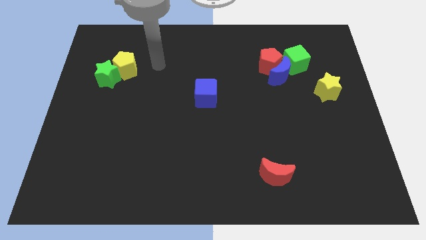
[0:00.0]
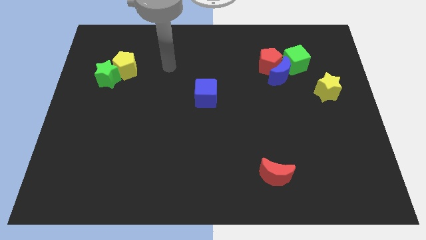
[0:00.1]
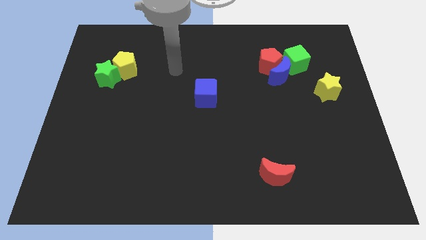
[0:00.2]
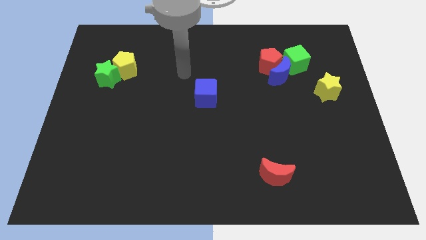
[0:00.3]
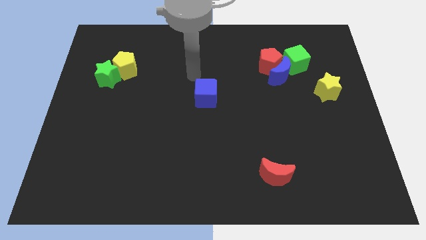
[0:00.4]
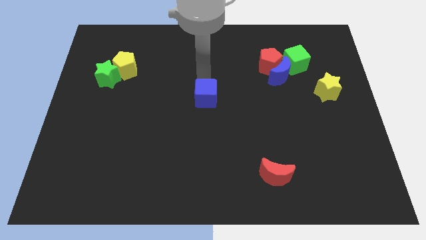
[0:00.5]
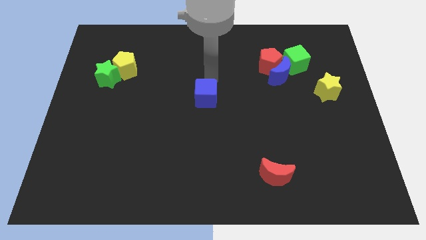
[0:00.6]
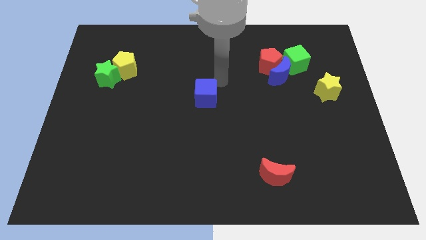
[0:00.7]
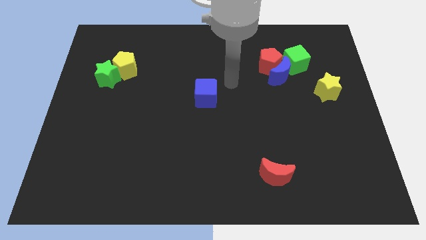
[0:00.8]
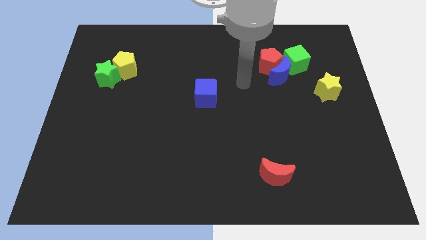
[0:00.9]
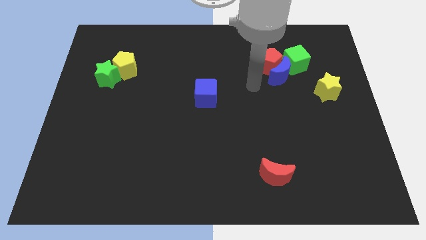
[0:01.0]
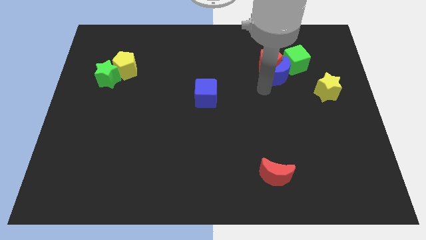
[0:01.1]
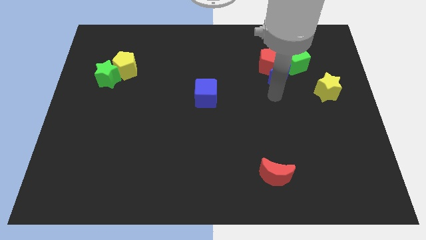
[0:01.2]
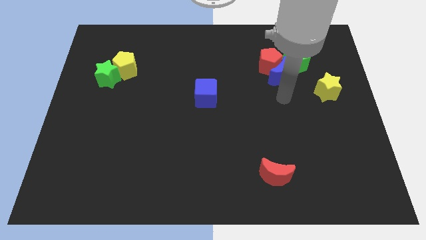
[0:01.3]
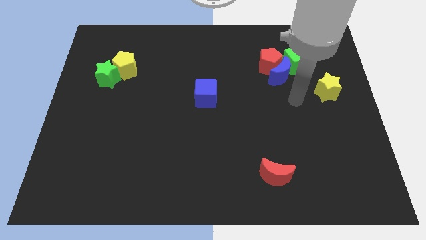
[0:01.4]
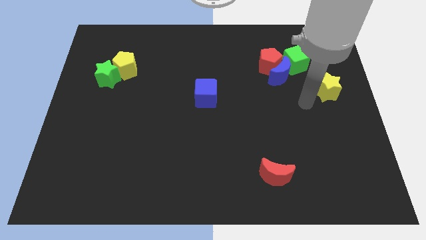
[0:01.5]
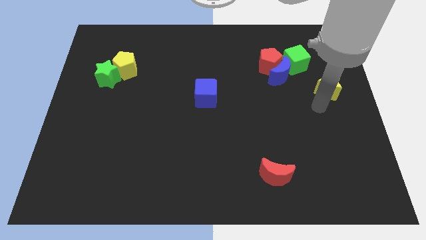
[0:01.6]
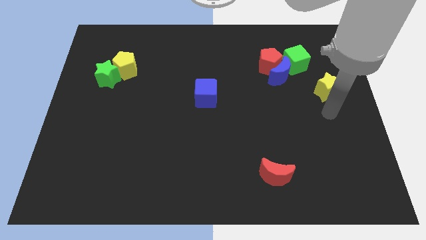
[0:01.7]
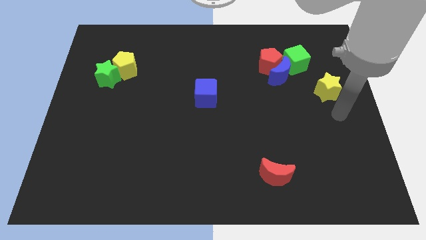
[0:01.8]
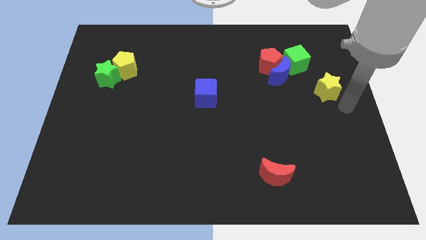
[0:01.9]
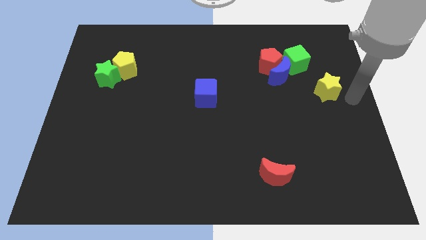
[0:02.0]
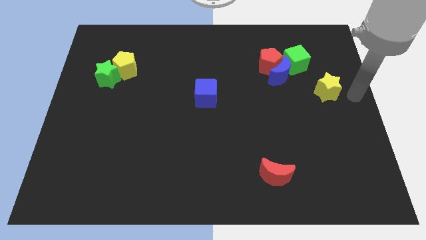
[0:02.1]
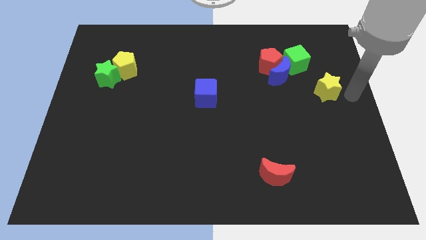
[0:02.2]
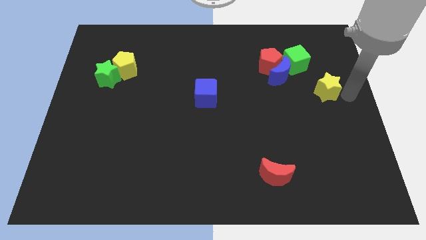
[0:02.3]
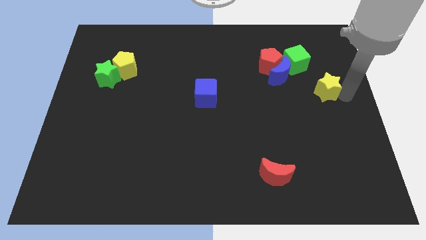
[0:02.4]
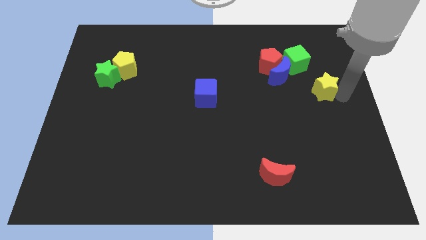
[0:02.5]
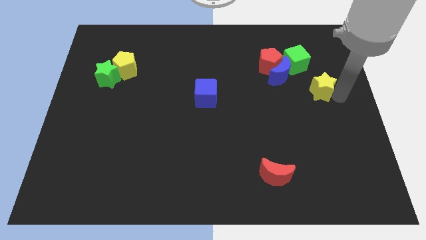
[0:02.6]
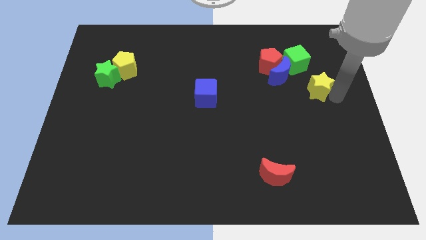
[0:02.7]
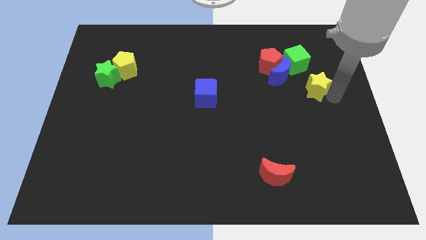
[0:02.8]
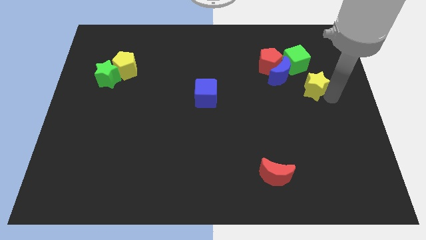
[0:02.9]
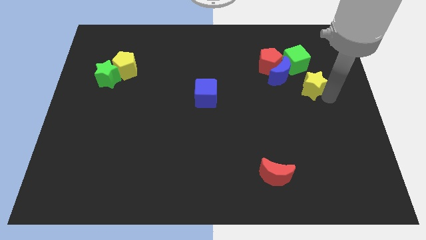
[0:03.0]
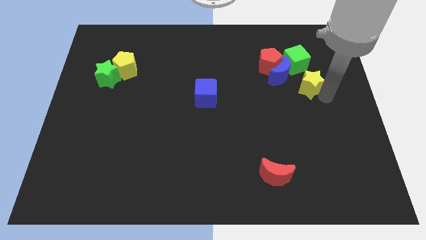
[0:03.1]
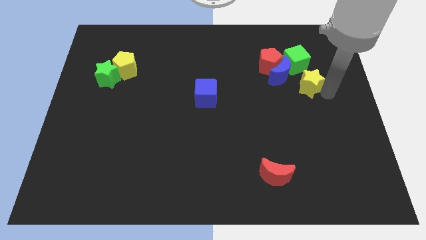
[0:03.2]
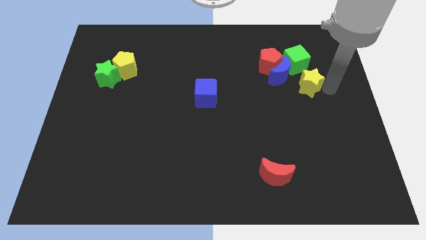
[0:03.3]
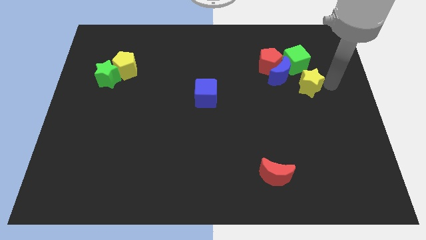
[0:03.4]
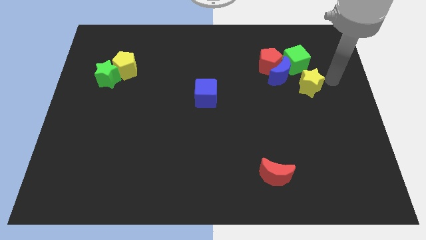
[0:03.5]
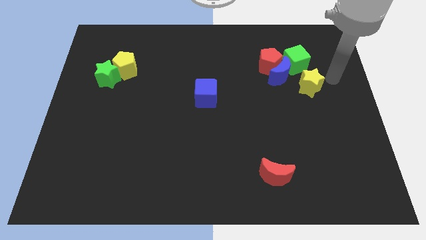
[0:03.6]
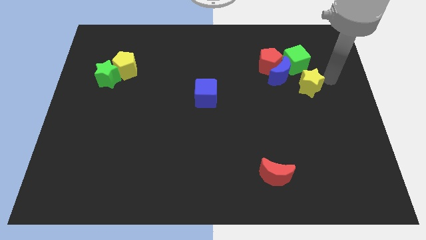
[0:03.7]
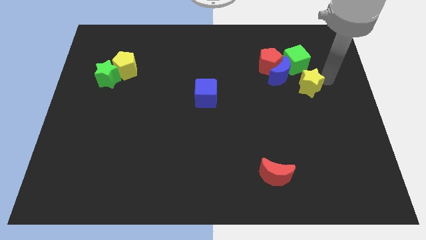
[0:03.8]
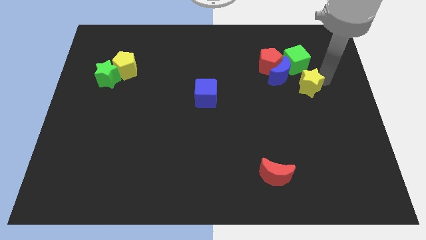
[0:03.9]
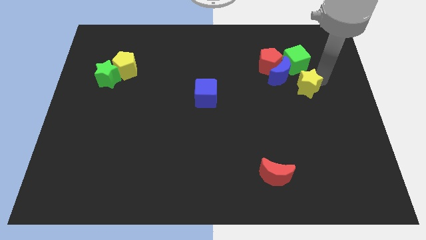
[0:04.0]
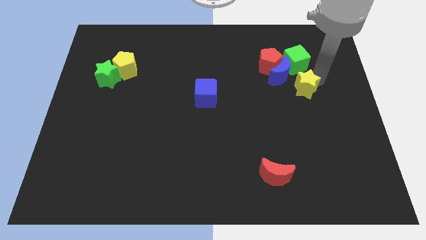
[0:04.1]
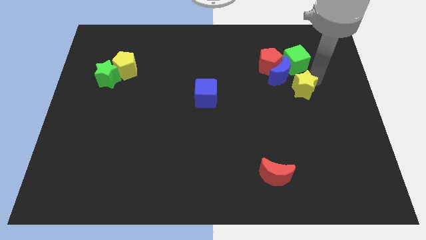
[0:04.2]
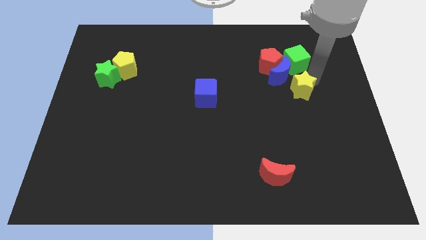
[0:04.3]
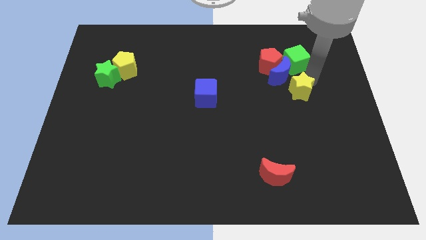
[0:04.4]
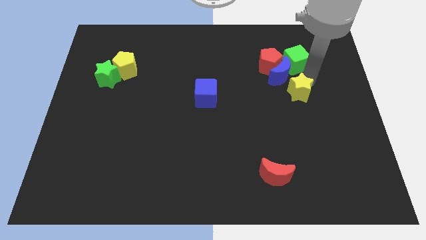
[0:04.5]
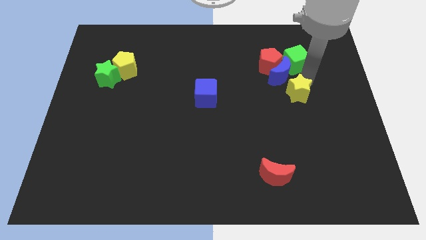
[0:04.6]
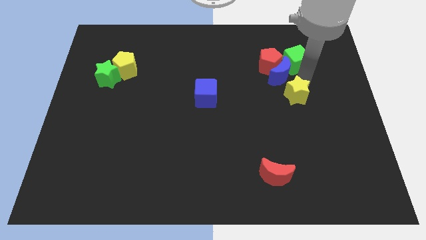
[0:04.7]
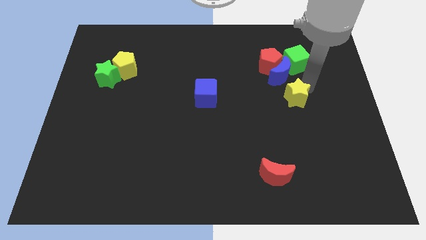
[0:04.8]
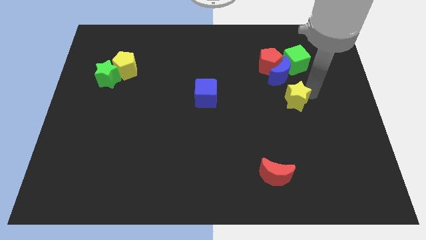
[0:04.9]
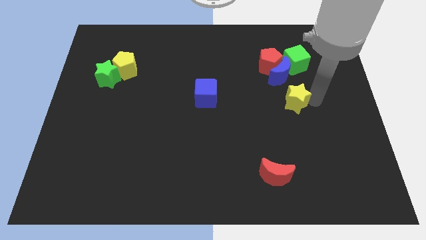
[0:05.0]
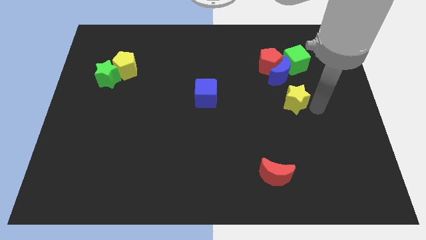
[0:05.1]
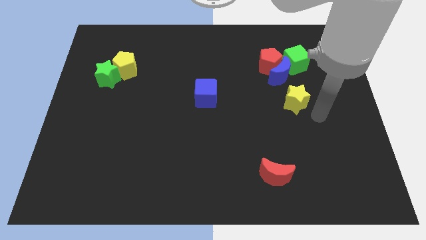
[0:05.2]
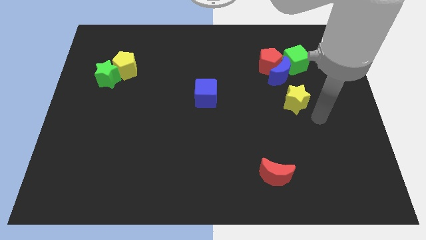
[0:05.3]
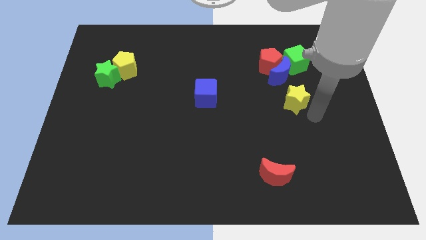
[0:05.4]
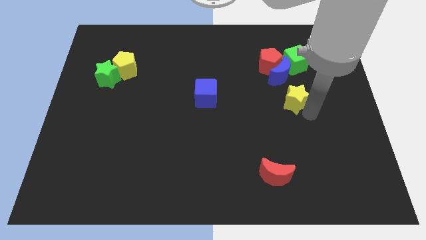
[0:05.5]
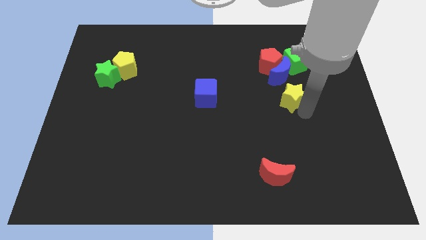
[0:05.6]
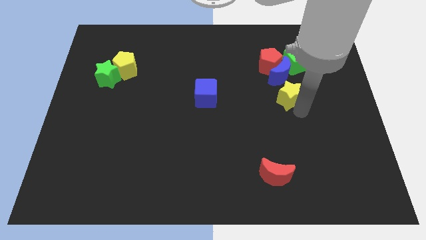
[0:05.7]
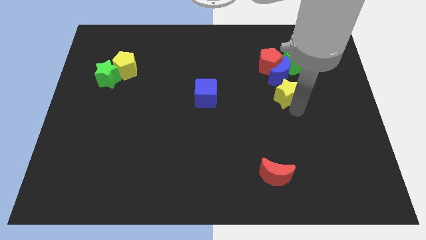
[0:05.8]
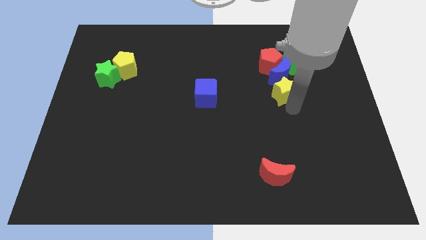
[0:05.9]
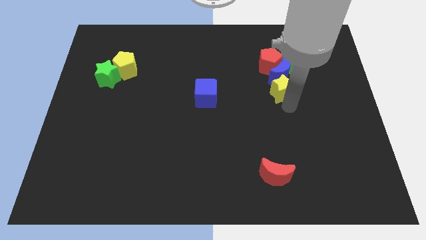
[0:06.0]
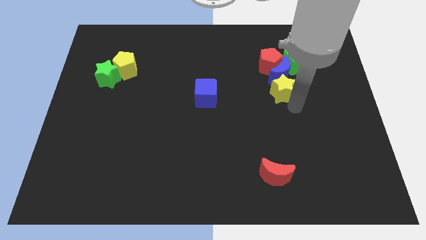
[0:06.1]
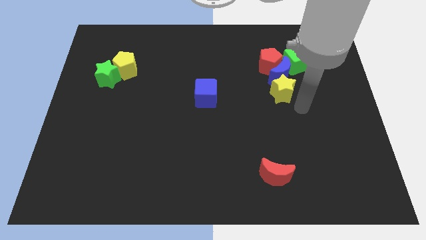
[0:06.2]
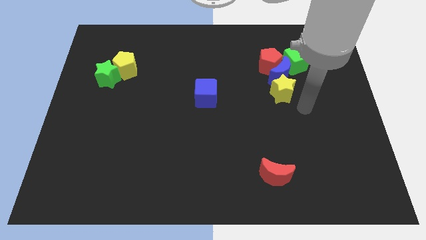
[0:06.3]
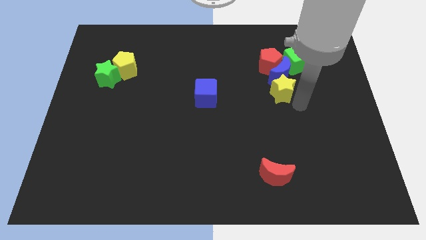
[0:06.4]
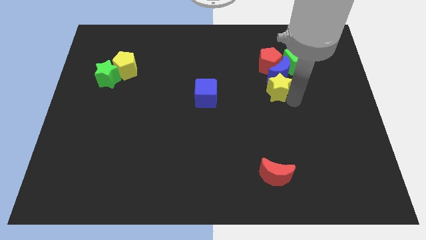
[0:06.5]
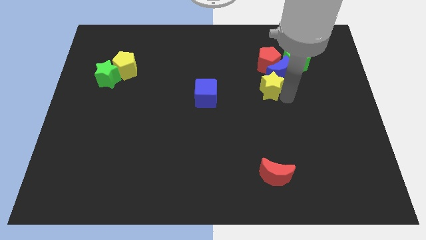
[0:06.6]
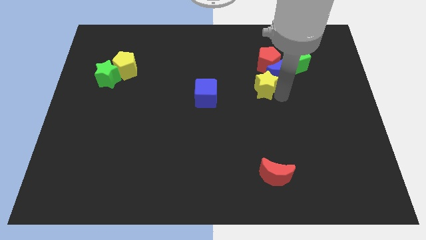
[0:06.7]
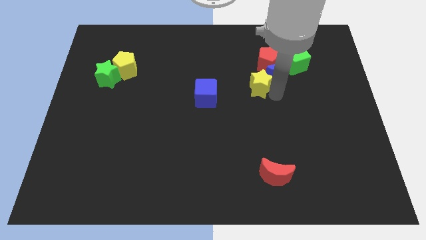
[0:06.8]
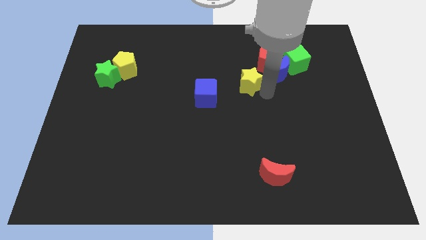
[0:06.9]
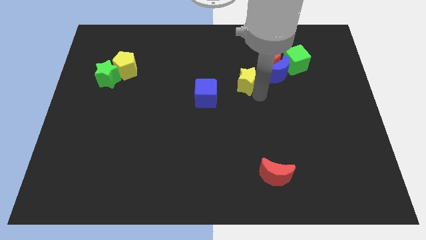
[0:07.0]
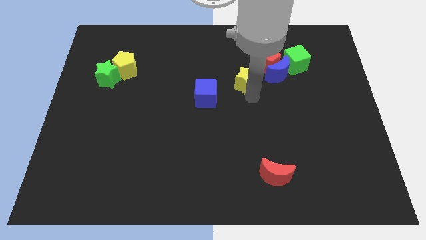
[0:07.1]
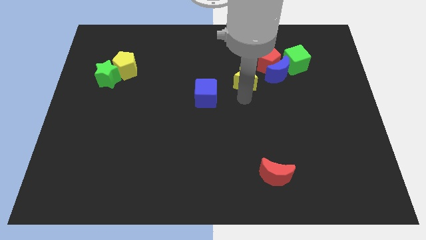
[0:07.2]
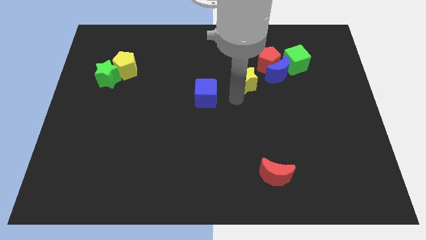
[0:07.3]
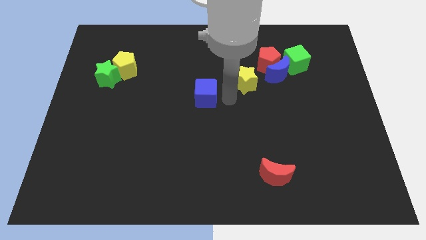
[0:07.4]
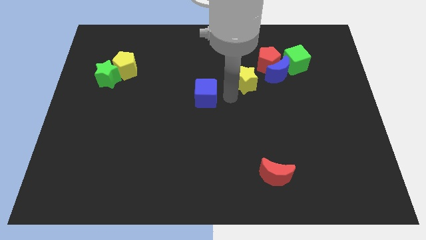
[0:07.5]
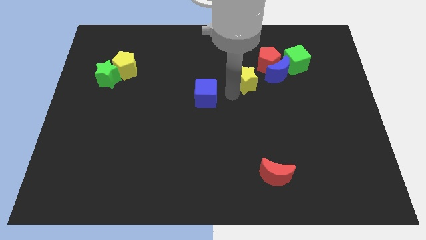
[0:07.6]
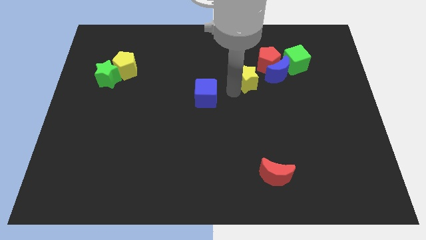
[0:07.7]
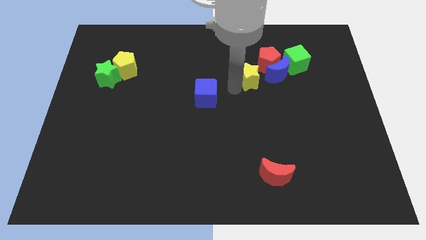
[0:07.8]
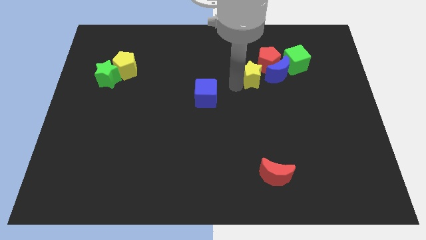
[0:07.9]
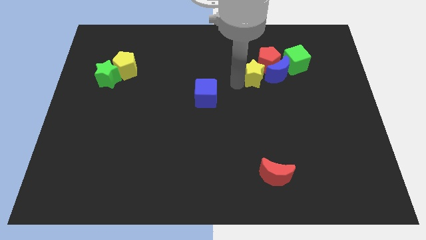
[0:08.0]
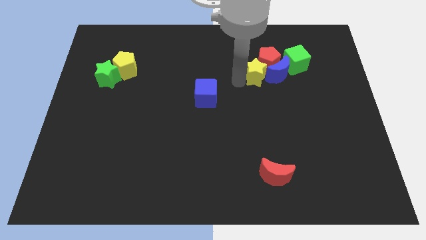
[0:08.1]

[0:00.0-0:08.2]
slide the yellow star next to the red pentagon
